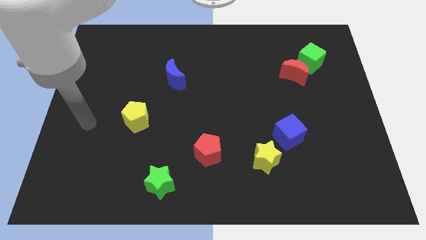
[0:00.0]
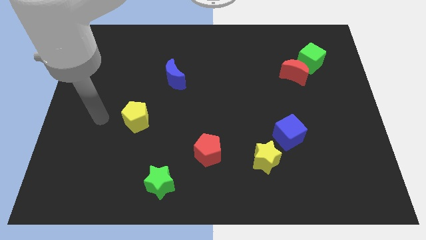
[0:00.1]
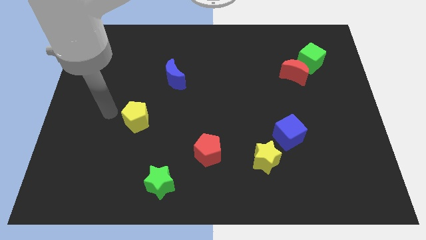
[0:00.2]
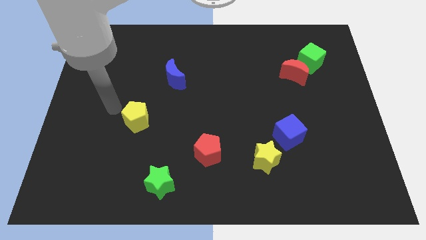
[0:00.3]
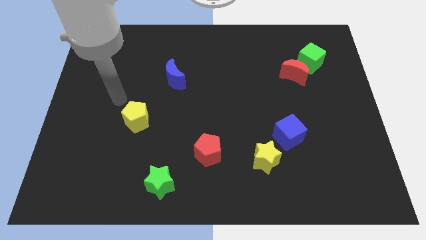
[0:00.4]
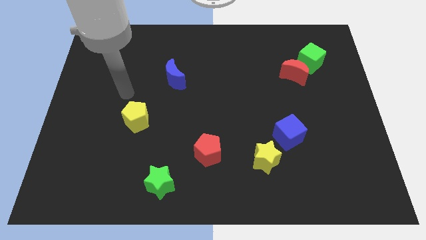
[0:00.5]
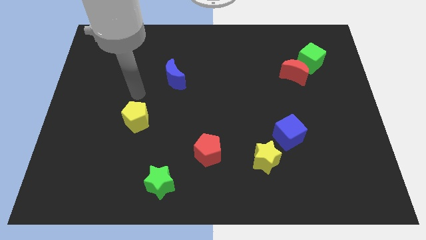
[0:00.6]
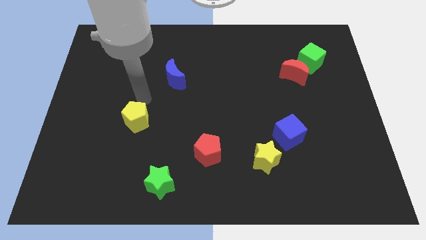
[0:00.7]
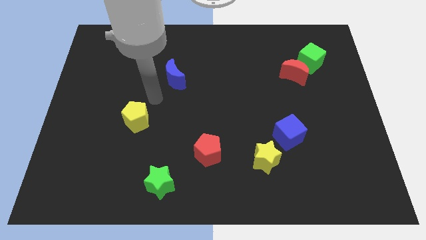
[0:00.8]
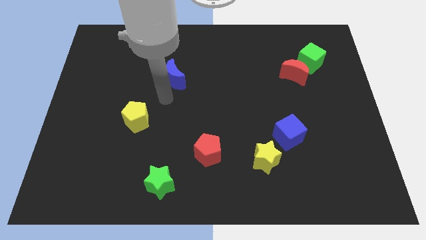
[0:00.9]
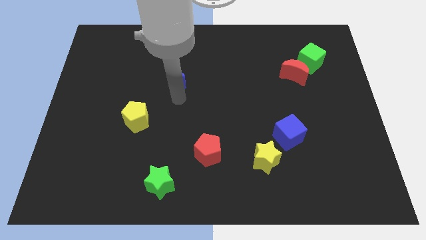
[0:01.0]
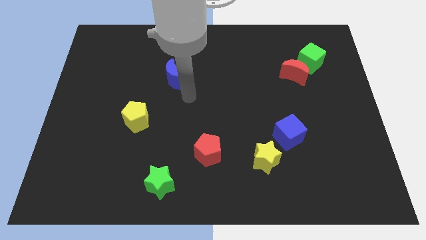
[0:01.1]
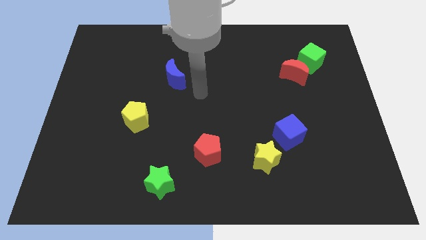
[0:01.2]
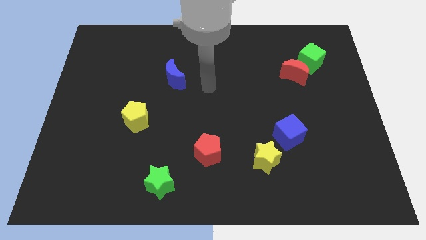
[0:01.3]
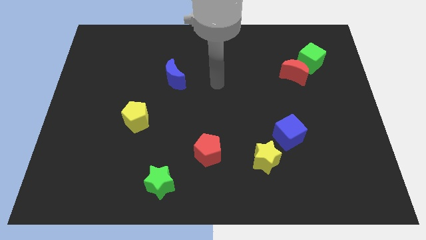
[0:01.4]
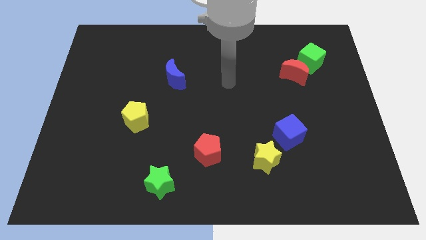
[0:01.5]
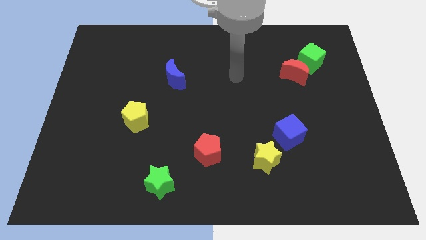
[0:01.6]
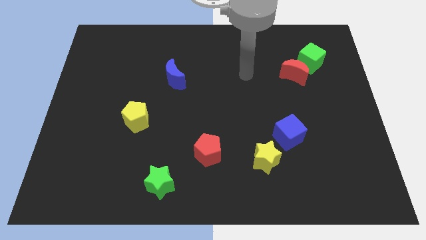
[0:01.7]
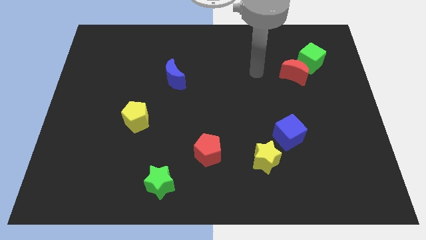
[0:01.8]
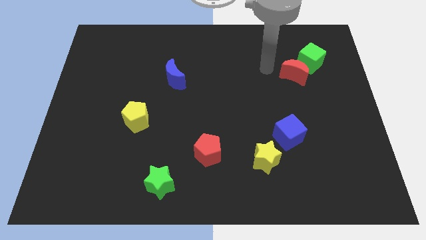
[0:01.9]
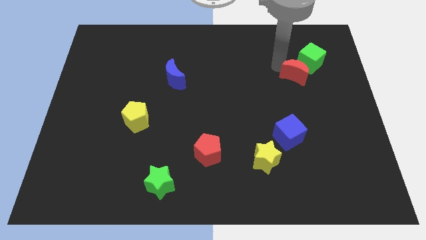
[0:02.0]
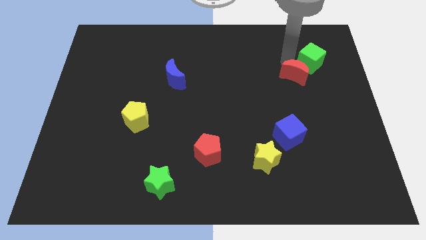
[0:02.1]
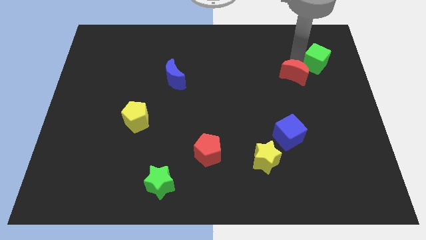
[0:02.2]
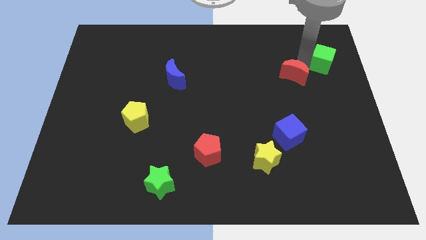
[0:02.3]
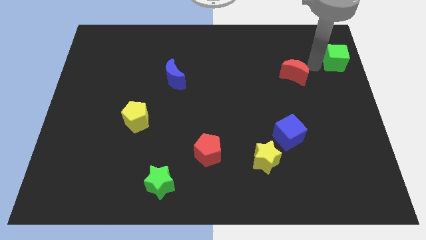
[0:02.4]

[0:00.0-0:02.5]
move the red moon away from the green cube

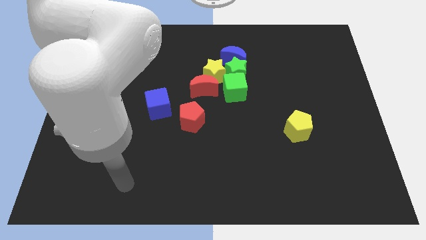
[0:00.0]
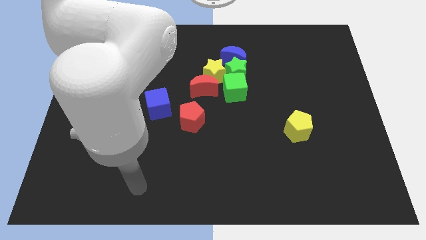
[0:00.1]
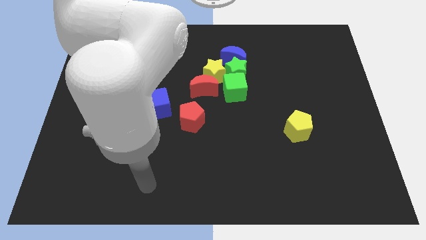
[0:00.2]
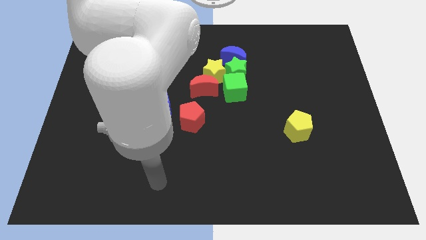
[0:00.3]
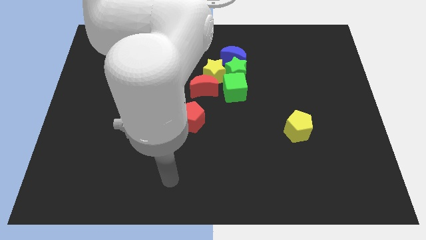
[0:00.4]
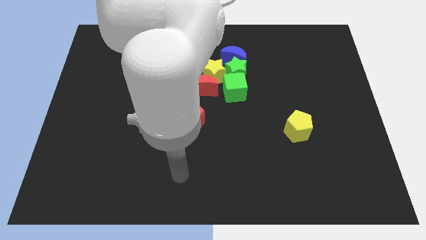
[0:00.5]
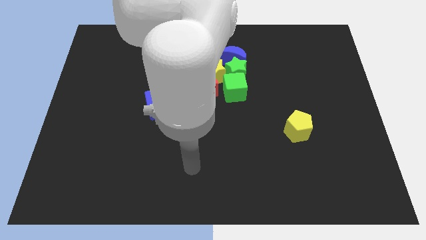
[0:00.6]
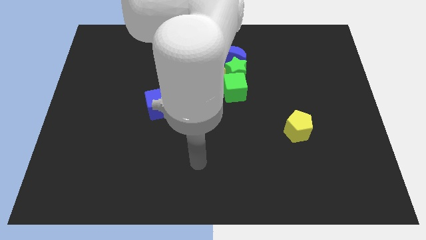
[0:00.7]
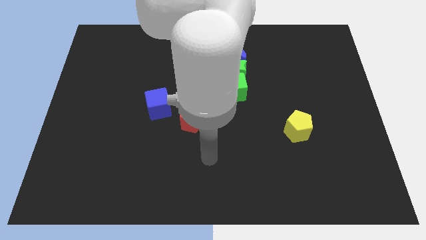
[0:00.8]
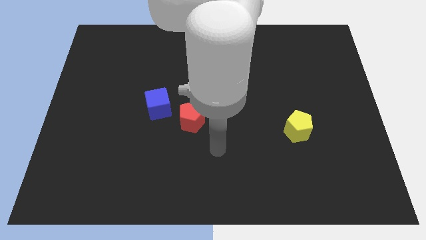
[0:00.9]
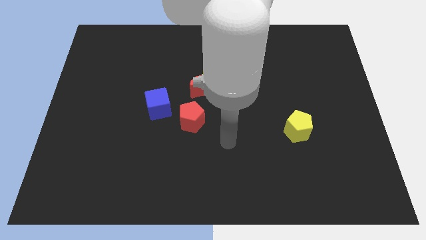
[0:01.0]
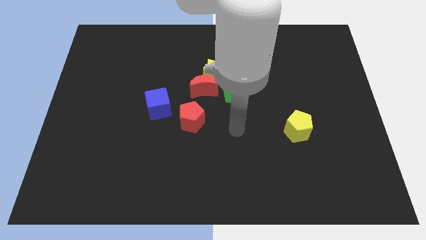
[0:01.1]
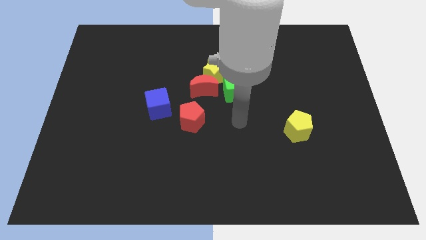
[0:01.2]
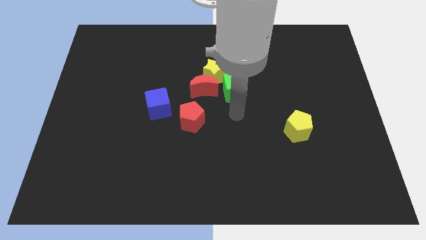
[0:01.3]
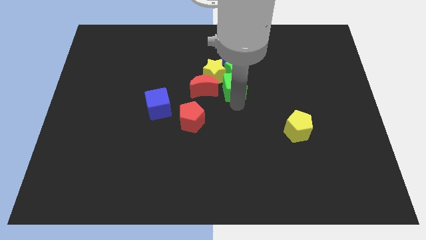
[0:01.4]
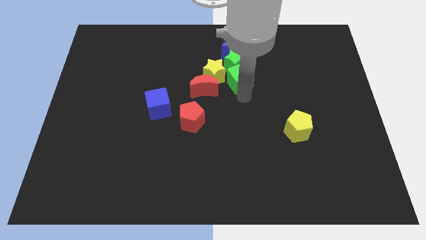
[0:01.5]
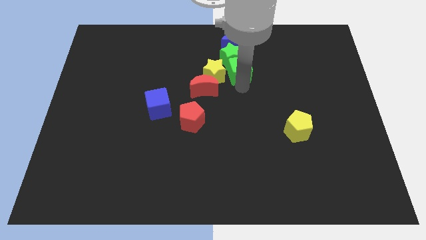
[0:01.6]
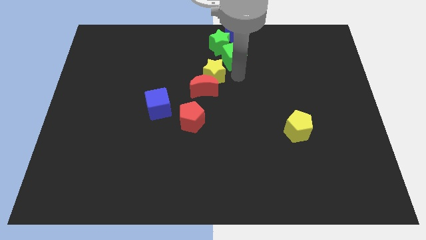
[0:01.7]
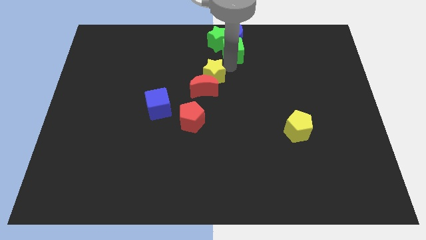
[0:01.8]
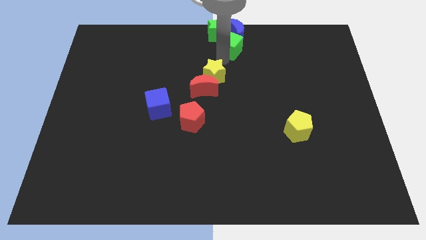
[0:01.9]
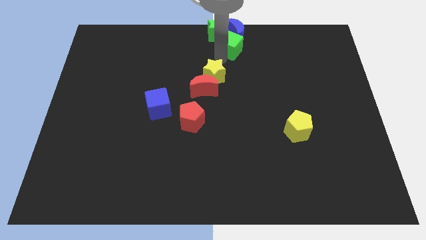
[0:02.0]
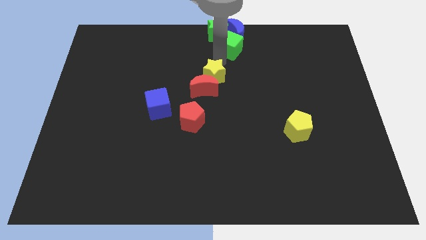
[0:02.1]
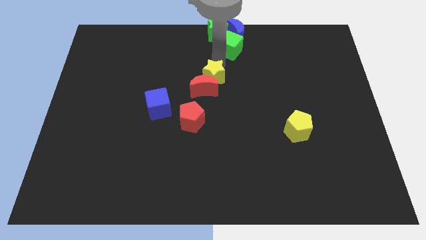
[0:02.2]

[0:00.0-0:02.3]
separate the yellow star from the clump

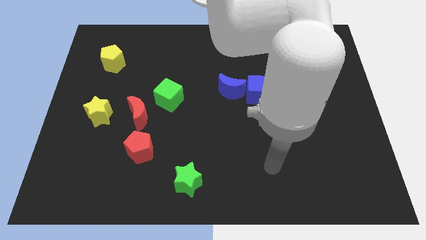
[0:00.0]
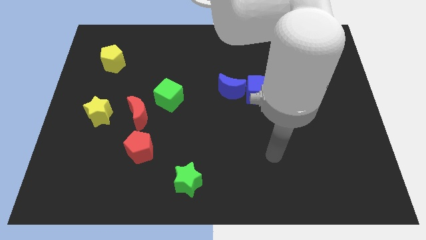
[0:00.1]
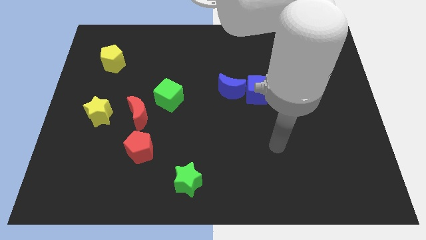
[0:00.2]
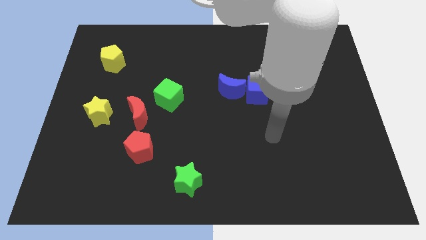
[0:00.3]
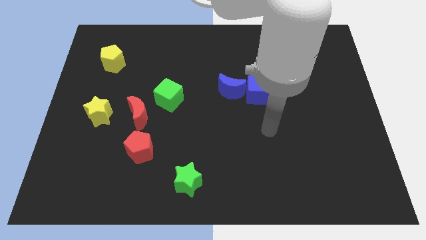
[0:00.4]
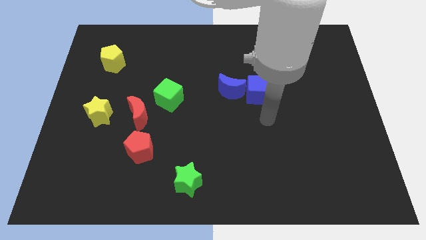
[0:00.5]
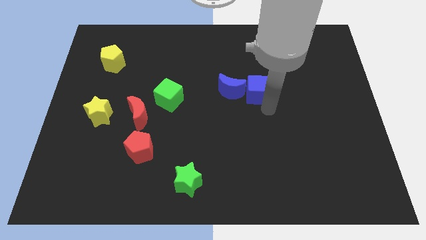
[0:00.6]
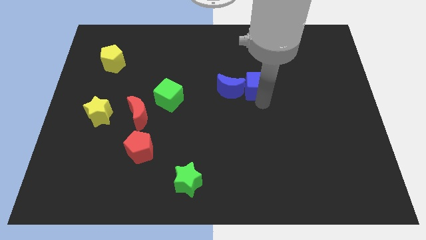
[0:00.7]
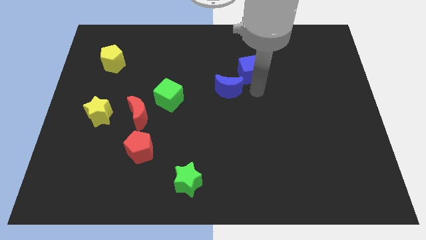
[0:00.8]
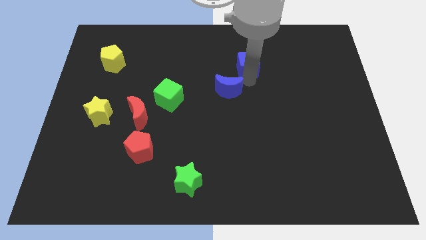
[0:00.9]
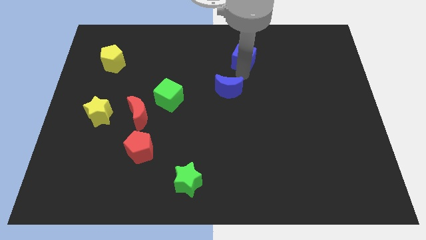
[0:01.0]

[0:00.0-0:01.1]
move the blue moon away from the blue cube

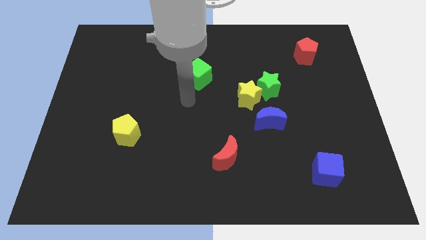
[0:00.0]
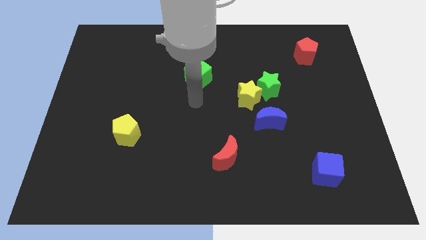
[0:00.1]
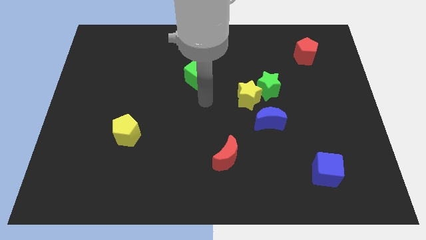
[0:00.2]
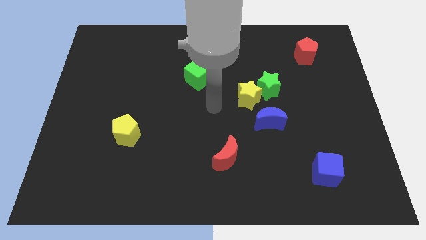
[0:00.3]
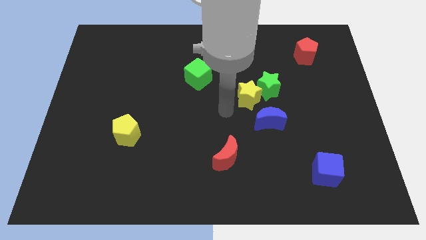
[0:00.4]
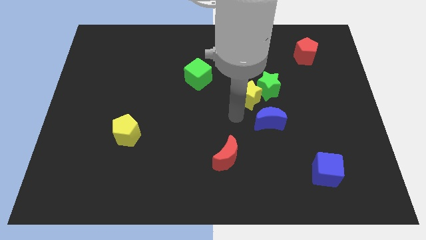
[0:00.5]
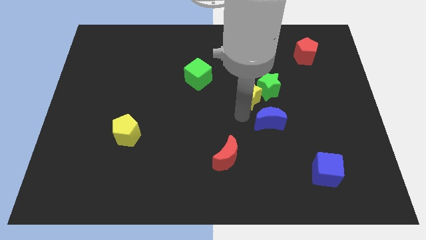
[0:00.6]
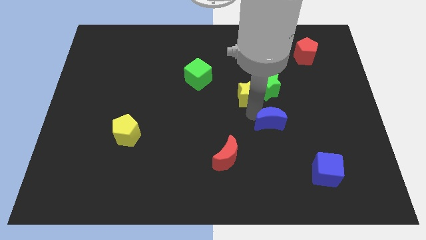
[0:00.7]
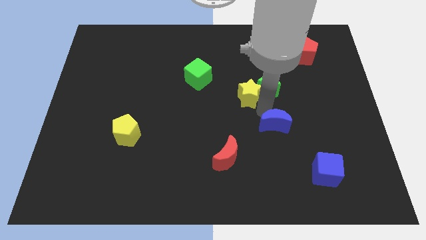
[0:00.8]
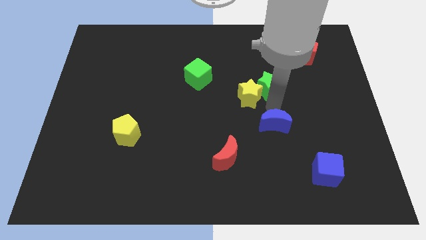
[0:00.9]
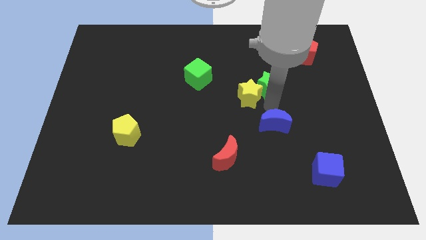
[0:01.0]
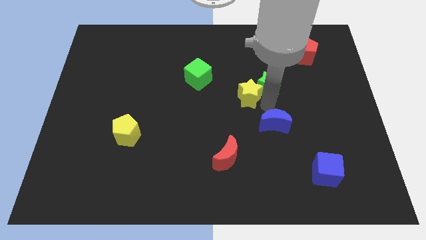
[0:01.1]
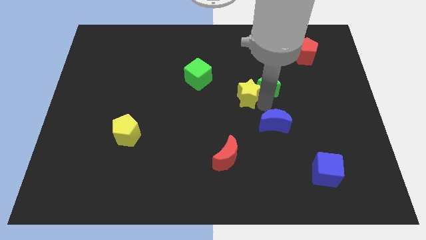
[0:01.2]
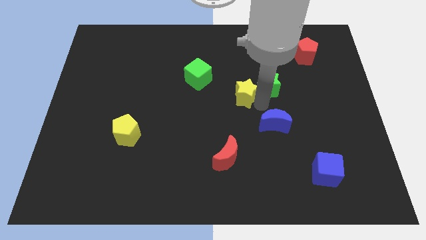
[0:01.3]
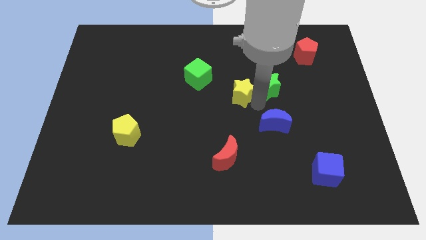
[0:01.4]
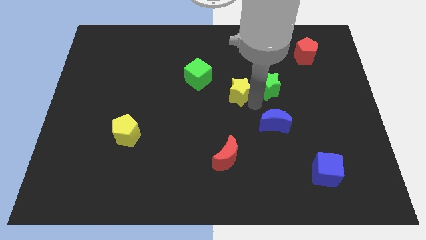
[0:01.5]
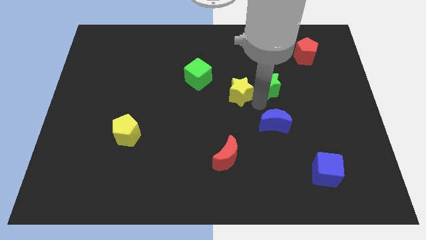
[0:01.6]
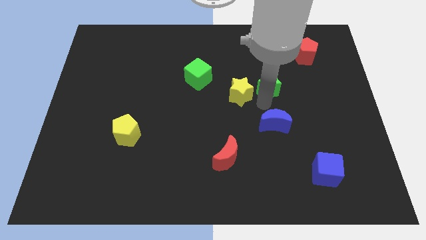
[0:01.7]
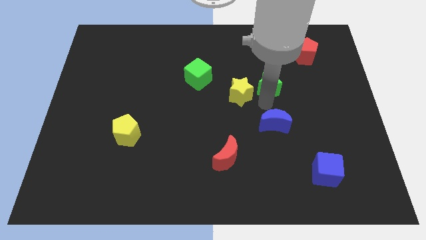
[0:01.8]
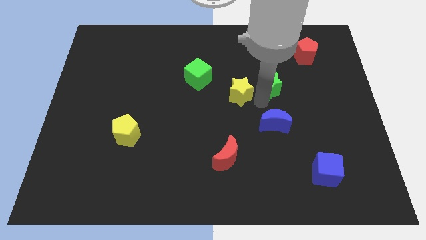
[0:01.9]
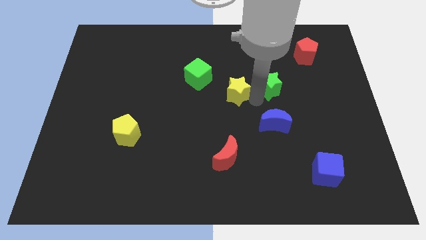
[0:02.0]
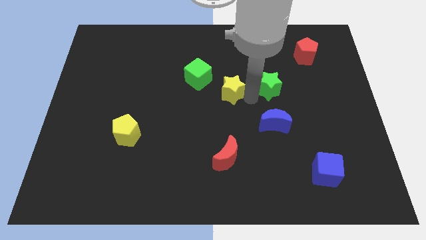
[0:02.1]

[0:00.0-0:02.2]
separate the yellow star from the green star and blue moon

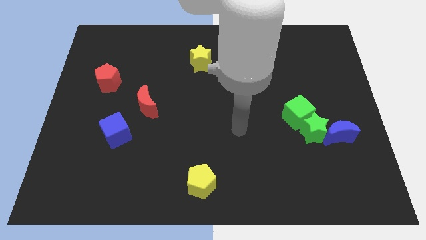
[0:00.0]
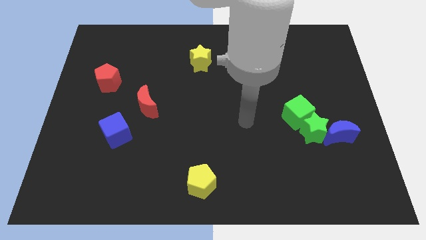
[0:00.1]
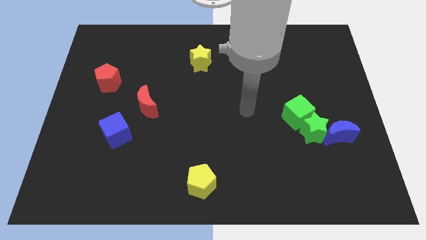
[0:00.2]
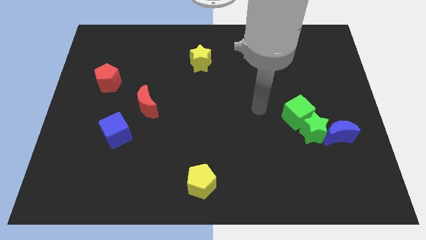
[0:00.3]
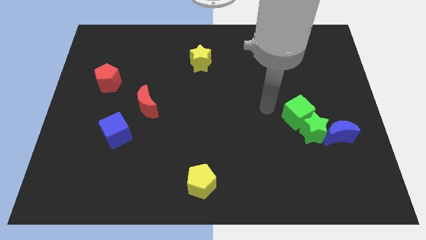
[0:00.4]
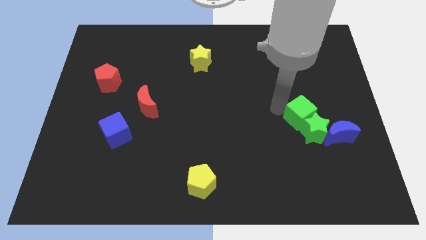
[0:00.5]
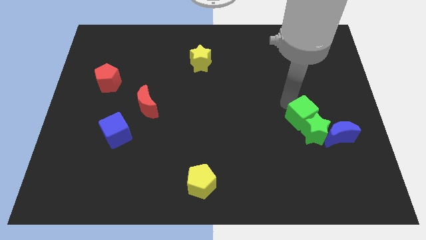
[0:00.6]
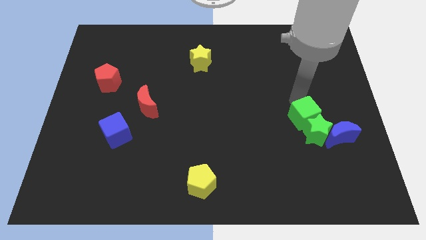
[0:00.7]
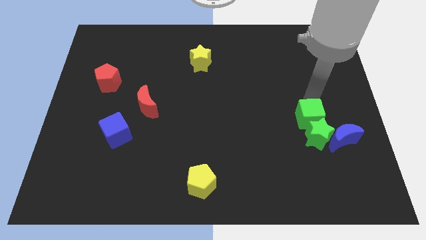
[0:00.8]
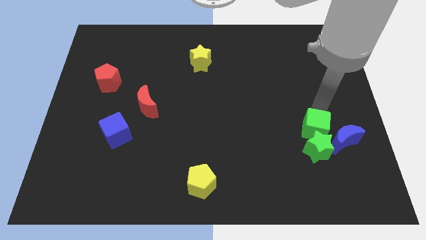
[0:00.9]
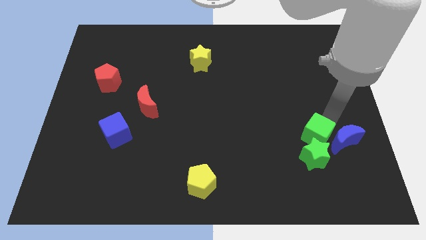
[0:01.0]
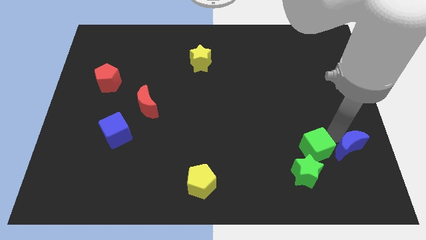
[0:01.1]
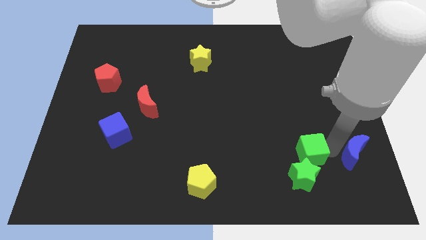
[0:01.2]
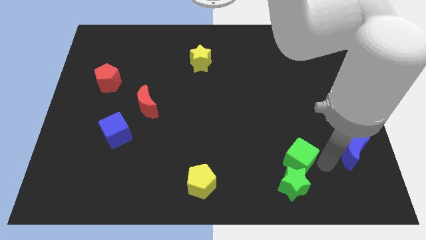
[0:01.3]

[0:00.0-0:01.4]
separate the green star from the green cube and blue moon

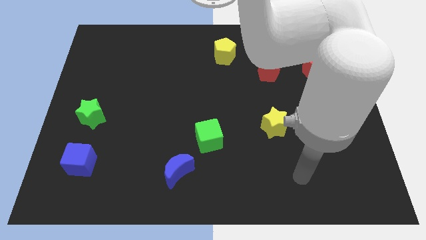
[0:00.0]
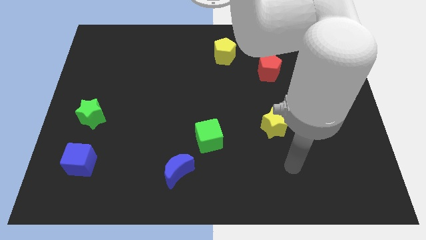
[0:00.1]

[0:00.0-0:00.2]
move the blue moon away from the green cube
